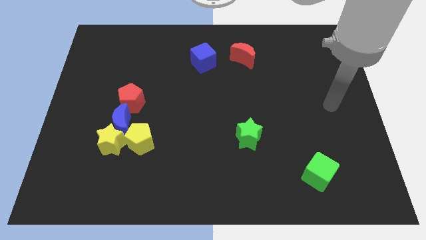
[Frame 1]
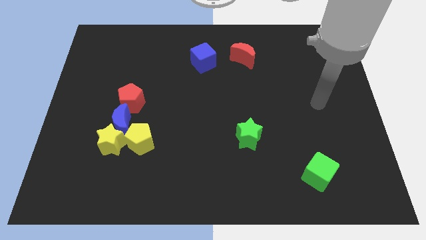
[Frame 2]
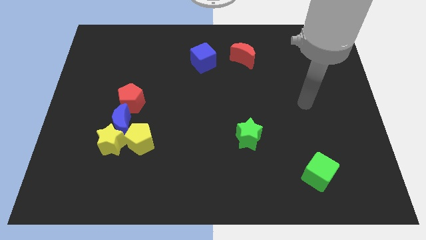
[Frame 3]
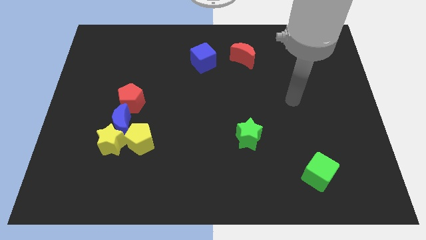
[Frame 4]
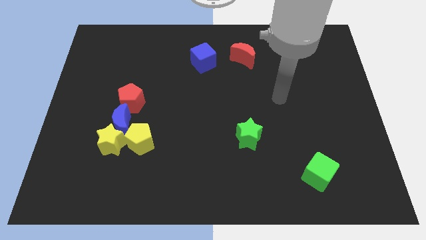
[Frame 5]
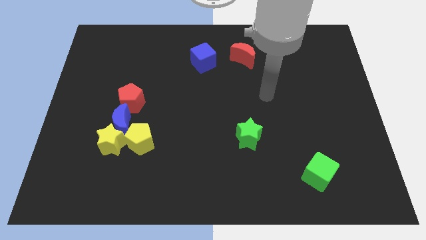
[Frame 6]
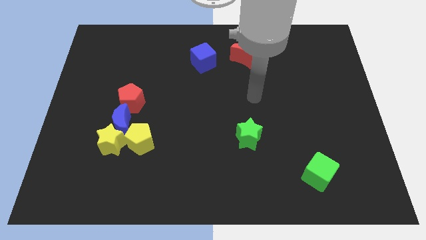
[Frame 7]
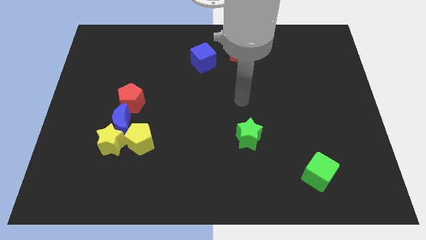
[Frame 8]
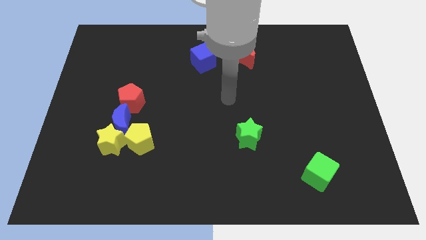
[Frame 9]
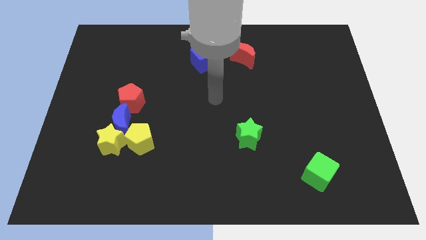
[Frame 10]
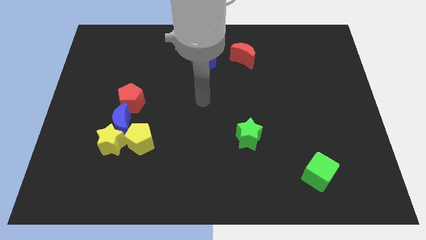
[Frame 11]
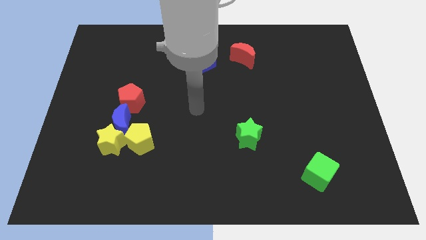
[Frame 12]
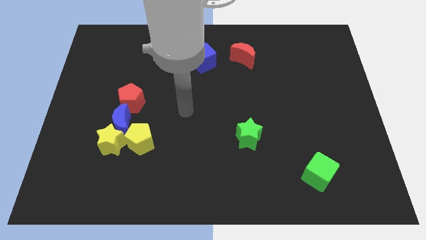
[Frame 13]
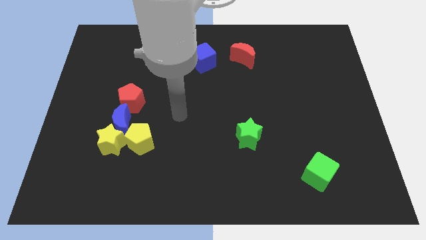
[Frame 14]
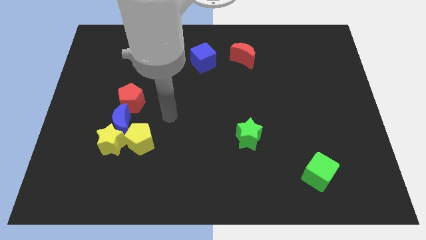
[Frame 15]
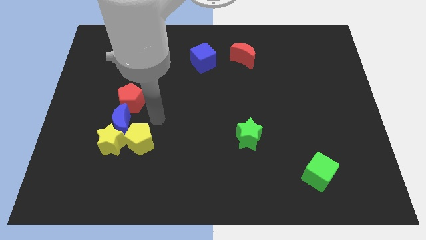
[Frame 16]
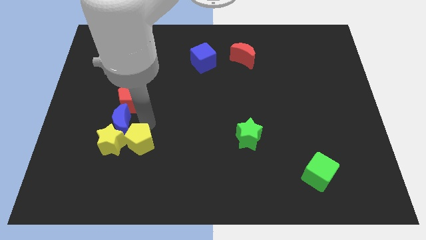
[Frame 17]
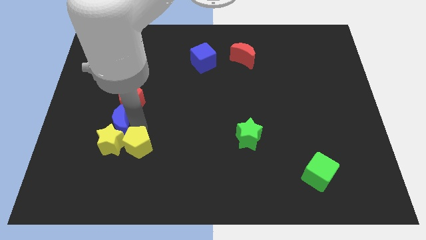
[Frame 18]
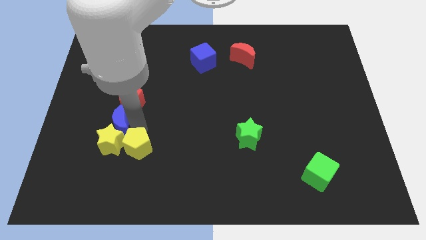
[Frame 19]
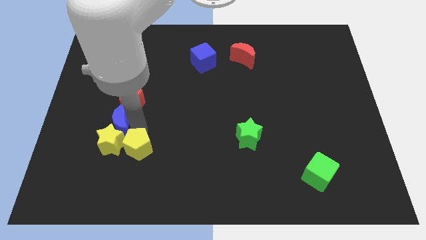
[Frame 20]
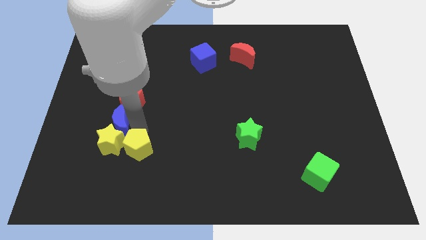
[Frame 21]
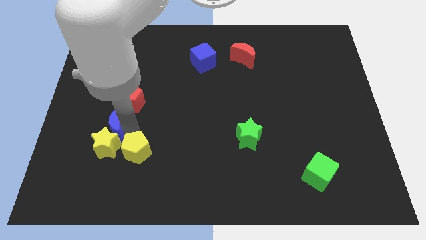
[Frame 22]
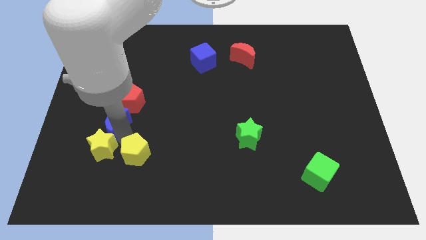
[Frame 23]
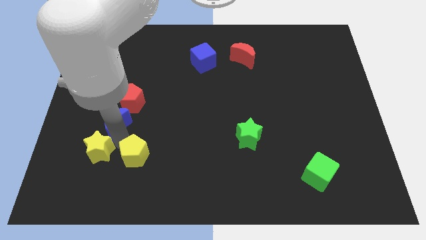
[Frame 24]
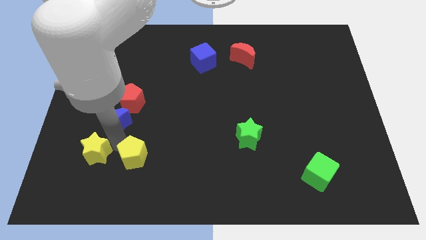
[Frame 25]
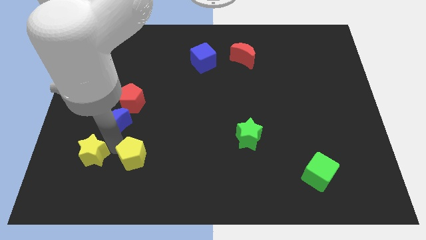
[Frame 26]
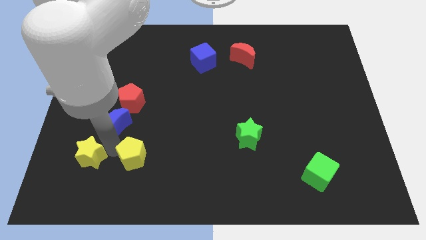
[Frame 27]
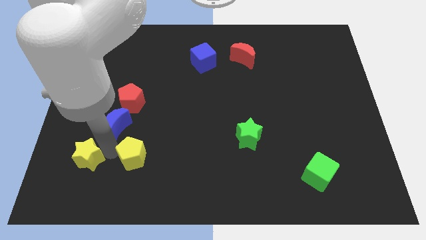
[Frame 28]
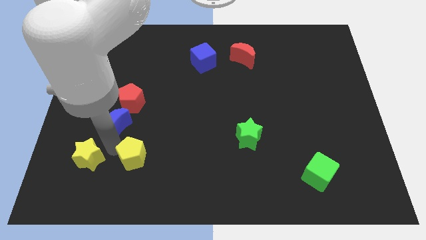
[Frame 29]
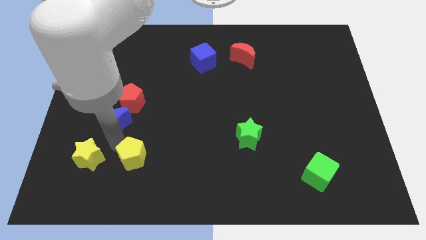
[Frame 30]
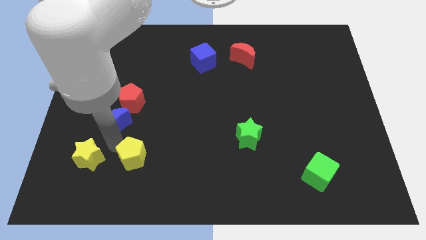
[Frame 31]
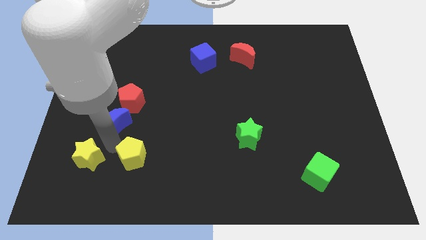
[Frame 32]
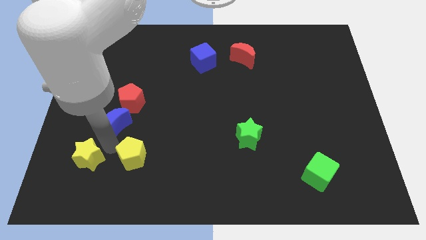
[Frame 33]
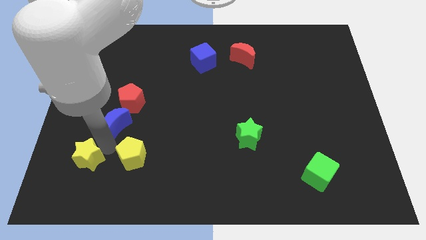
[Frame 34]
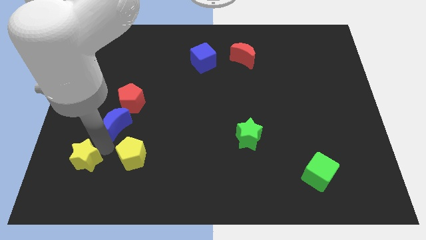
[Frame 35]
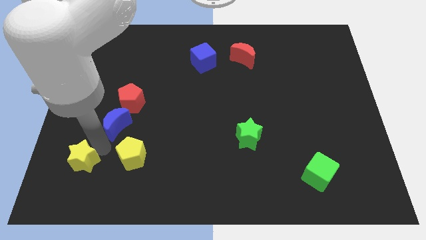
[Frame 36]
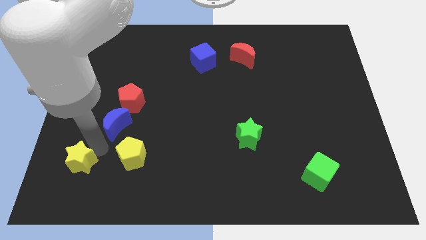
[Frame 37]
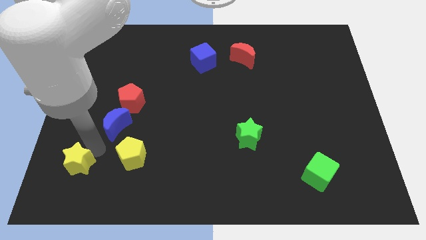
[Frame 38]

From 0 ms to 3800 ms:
move the yellow star away from the blue moon and yellow pentagon

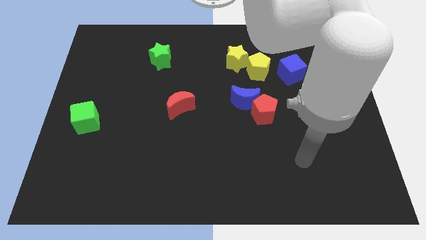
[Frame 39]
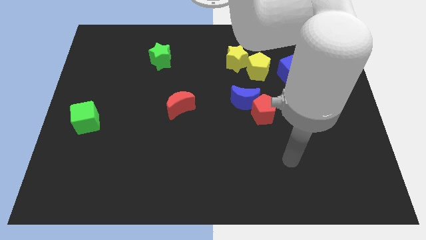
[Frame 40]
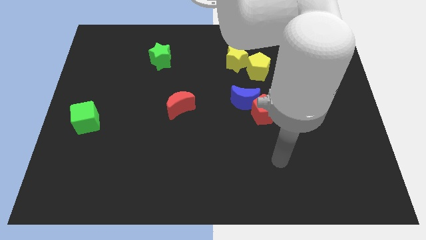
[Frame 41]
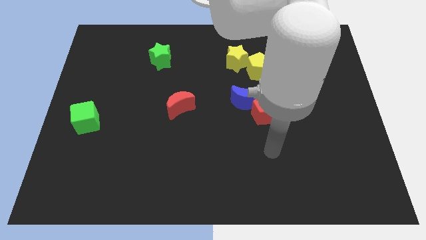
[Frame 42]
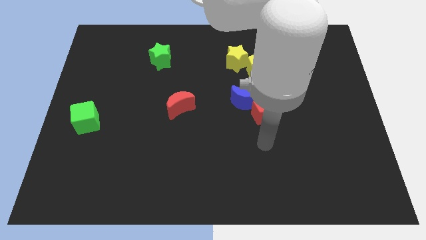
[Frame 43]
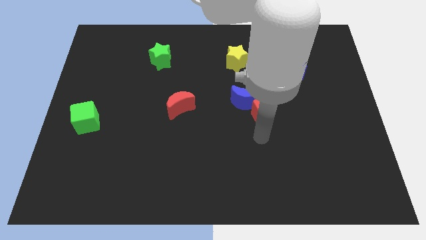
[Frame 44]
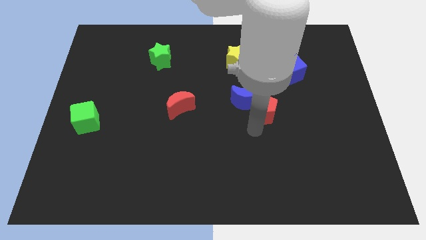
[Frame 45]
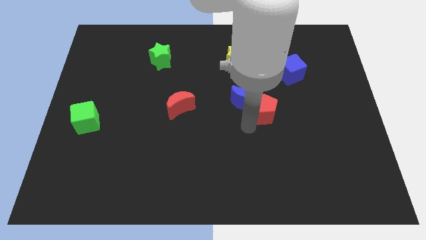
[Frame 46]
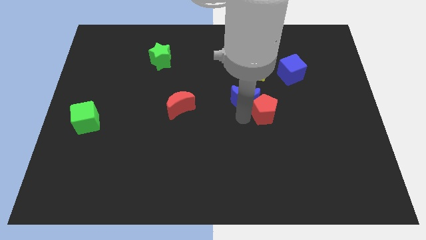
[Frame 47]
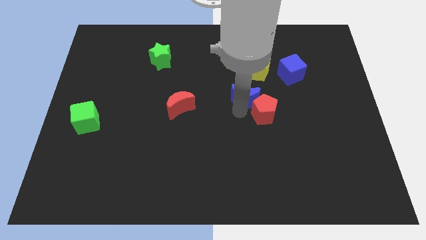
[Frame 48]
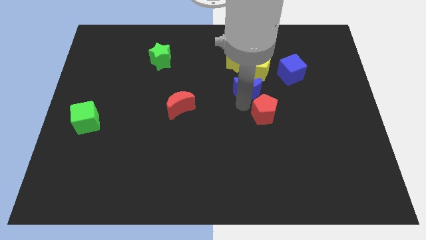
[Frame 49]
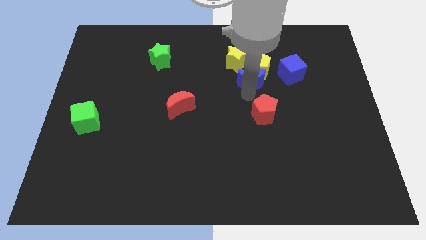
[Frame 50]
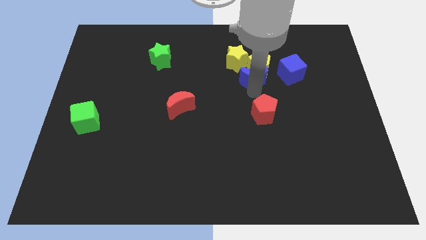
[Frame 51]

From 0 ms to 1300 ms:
separate the red pentagon from the blue moon

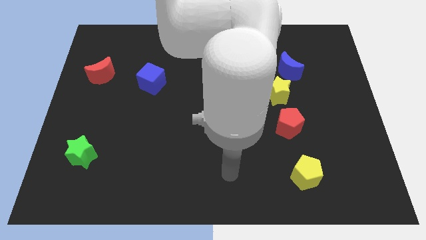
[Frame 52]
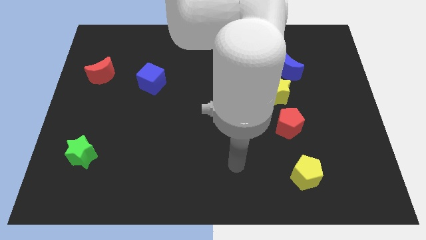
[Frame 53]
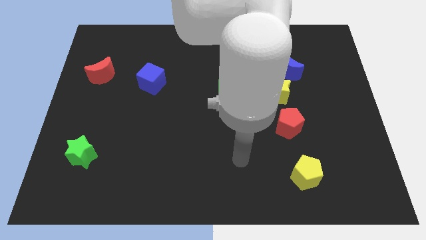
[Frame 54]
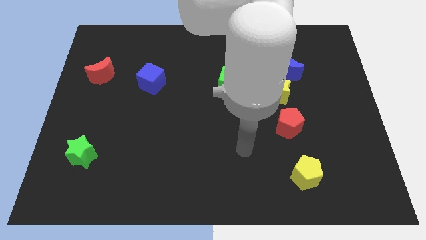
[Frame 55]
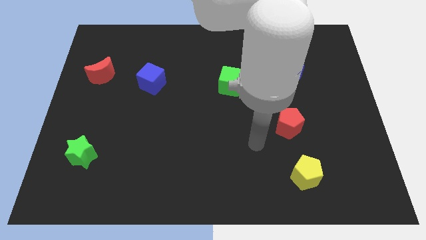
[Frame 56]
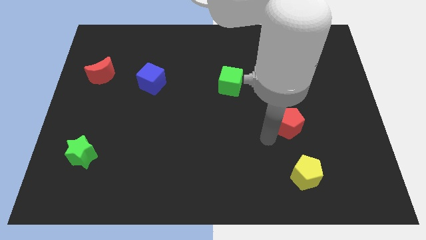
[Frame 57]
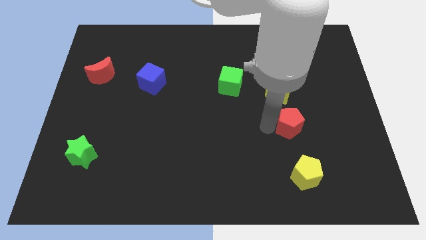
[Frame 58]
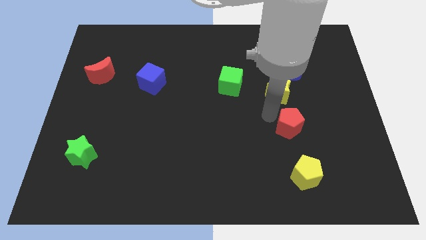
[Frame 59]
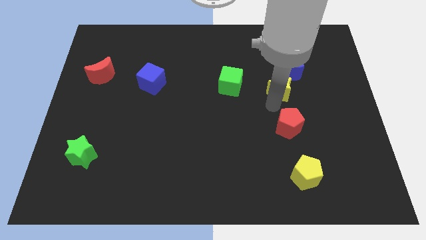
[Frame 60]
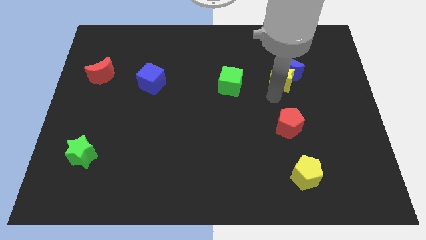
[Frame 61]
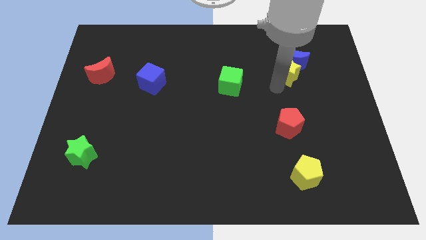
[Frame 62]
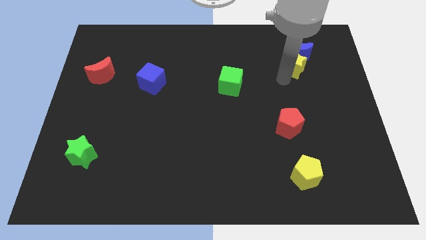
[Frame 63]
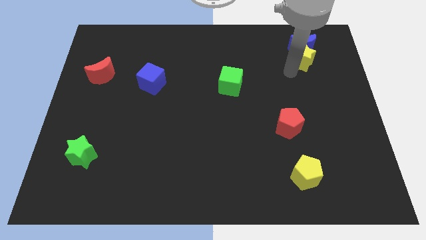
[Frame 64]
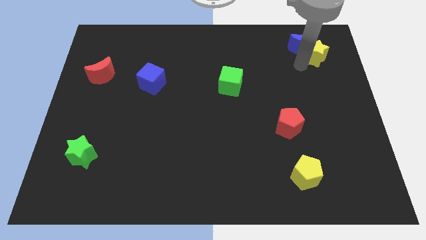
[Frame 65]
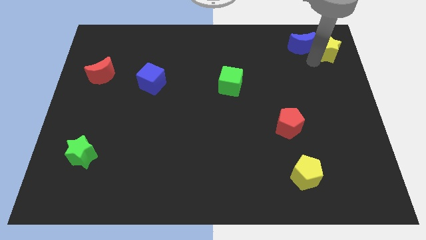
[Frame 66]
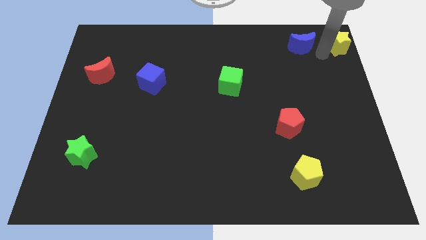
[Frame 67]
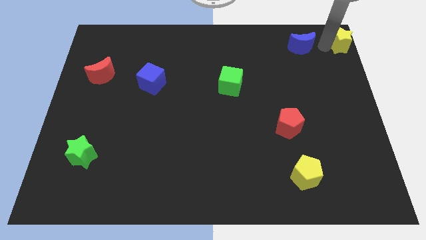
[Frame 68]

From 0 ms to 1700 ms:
pull the blue moon apart from the yellow star

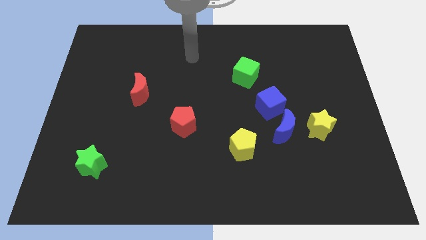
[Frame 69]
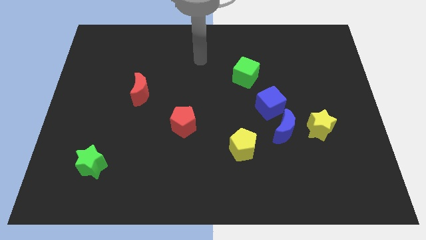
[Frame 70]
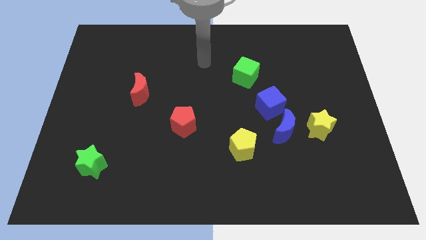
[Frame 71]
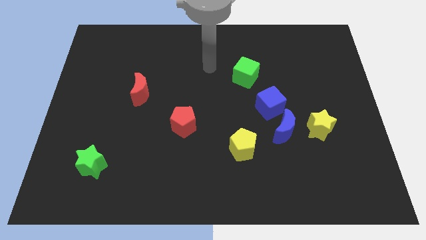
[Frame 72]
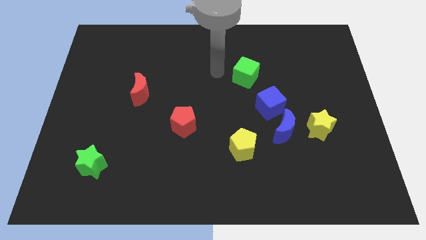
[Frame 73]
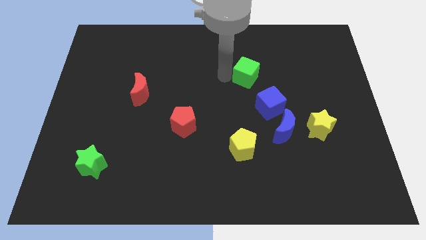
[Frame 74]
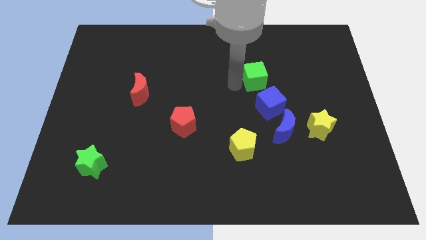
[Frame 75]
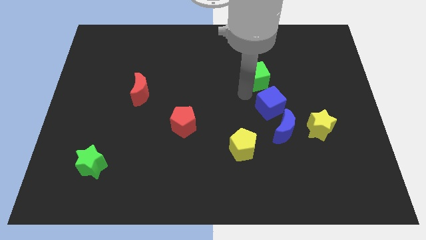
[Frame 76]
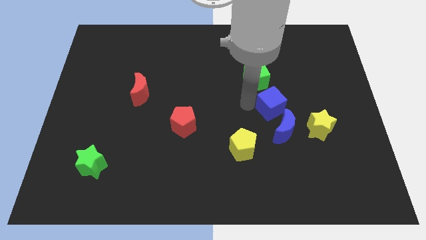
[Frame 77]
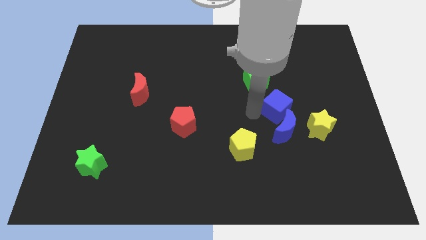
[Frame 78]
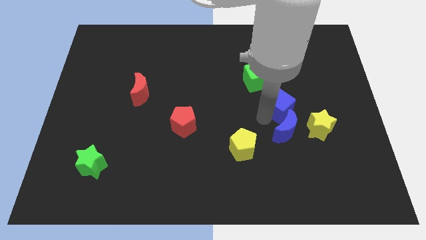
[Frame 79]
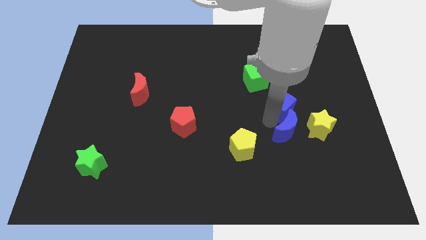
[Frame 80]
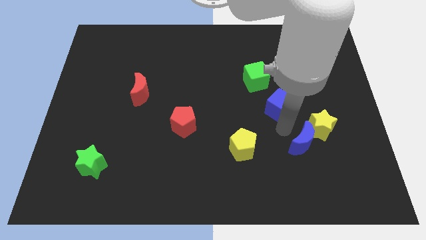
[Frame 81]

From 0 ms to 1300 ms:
move the blue cube away from the blue moon

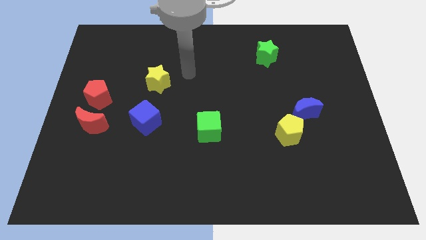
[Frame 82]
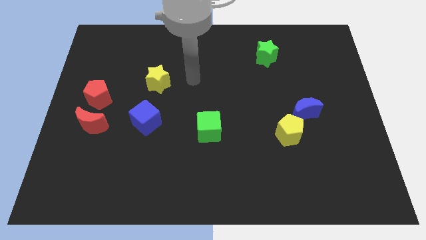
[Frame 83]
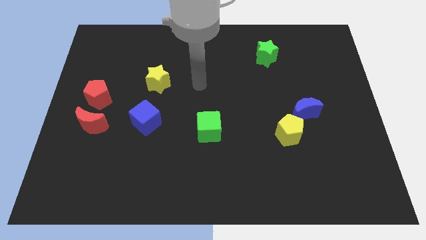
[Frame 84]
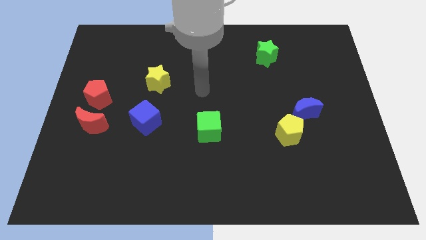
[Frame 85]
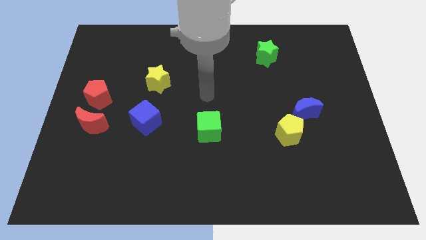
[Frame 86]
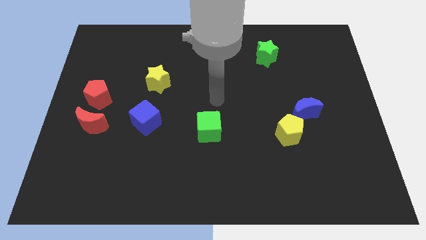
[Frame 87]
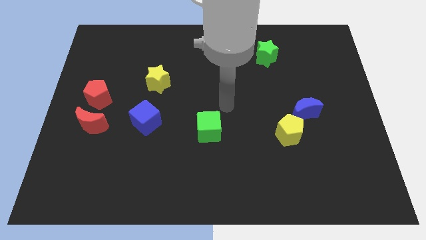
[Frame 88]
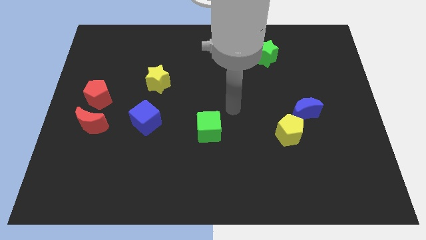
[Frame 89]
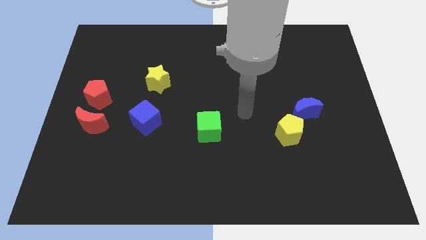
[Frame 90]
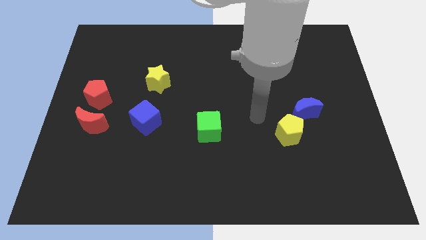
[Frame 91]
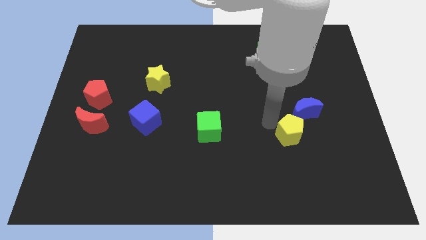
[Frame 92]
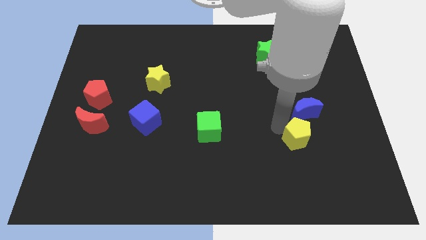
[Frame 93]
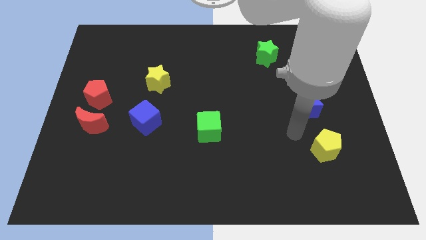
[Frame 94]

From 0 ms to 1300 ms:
separate the blue moon from the yellow pentagon
